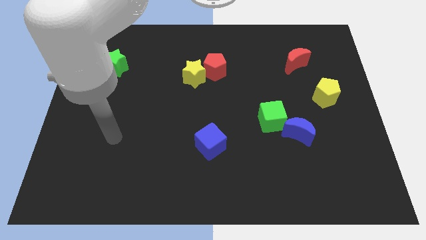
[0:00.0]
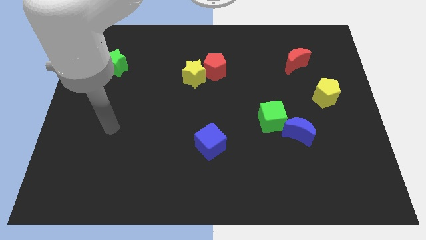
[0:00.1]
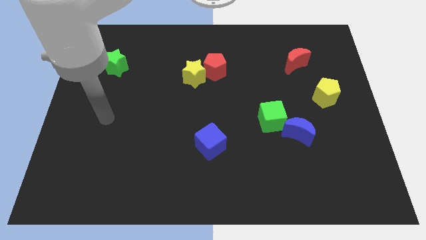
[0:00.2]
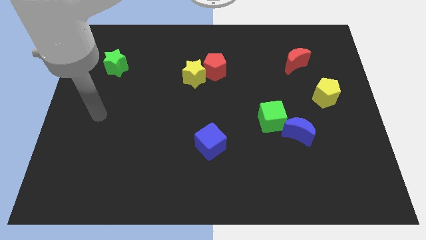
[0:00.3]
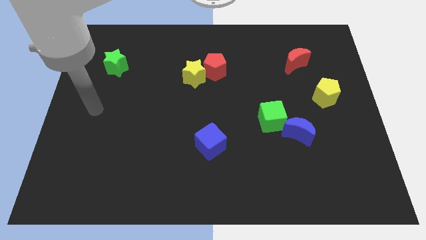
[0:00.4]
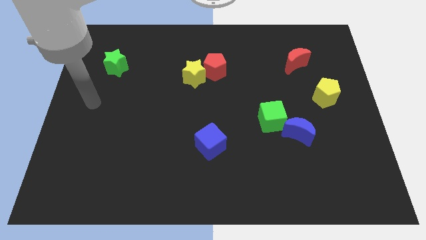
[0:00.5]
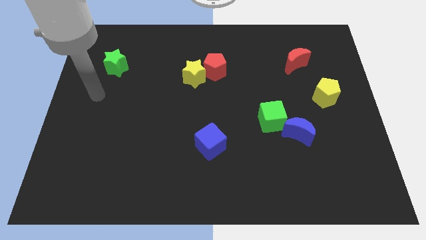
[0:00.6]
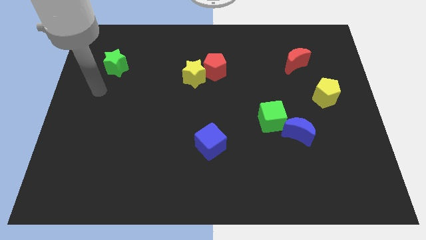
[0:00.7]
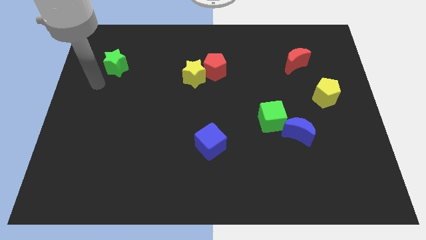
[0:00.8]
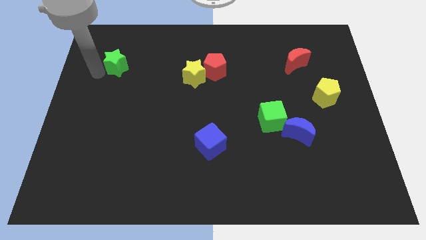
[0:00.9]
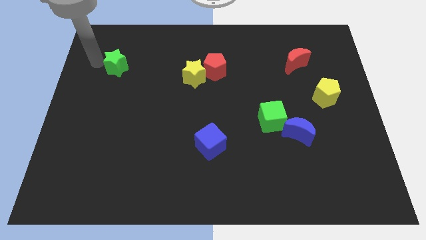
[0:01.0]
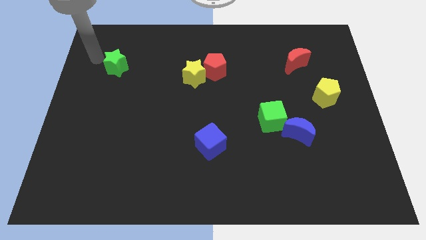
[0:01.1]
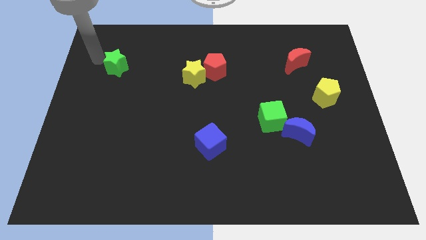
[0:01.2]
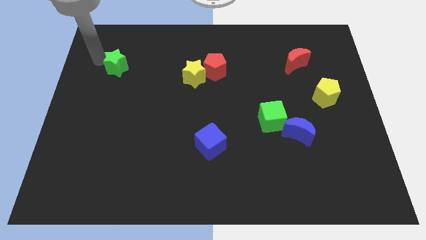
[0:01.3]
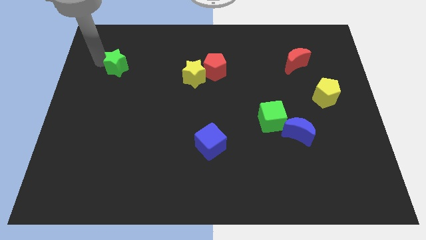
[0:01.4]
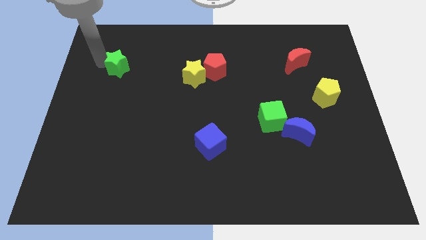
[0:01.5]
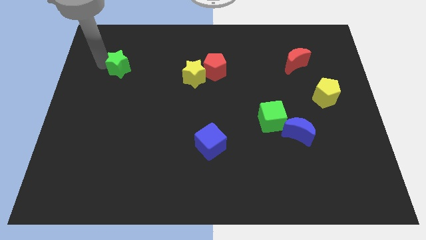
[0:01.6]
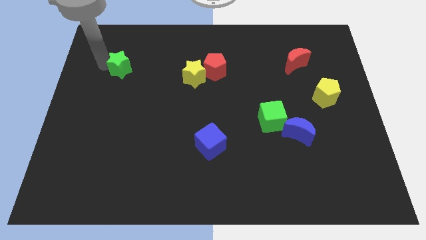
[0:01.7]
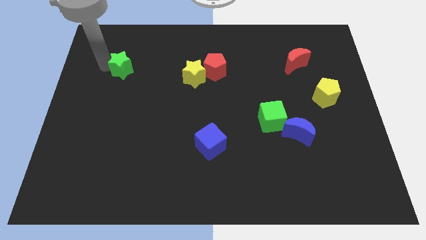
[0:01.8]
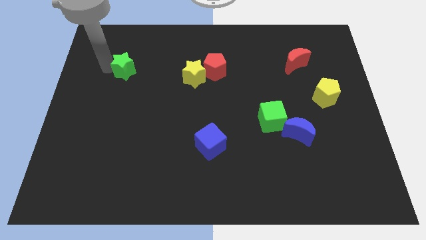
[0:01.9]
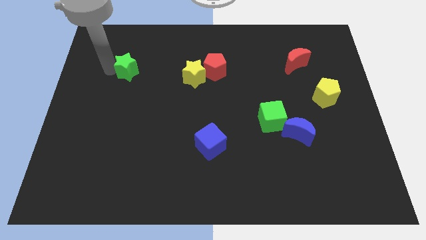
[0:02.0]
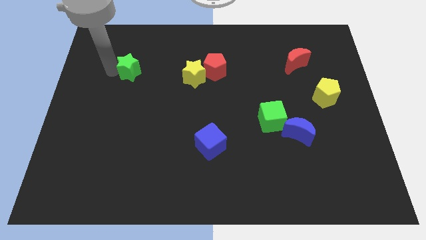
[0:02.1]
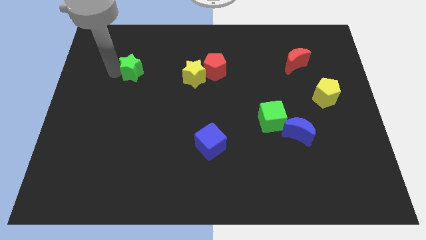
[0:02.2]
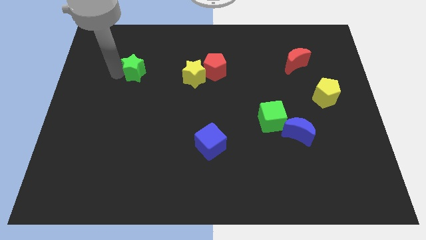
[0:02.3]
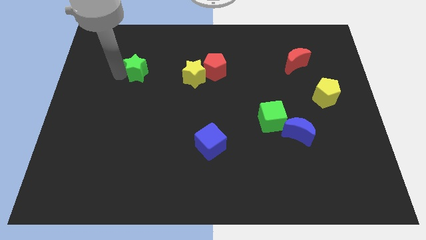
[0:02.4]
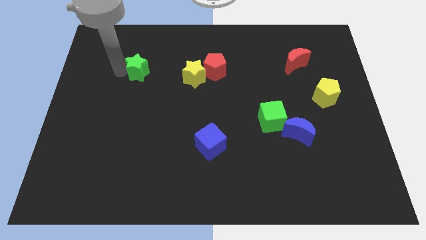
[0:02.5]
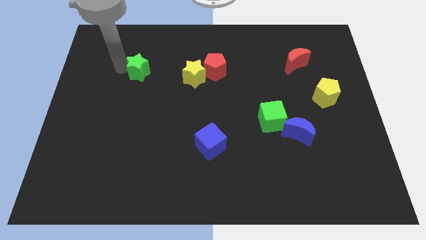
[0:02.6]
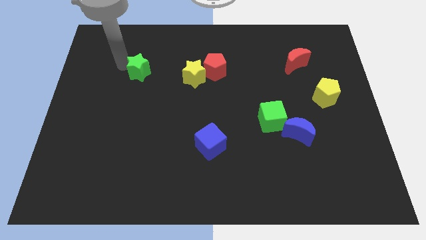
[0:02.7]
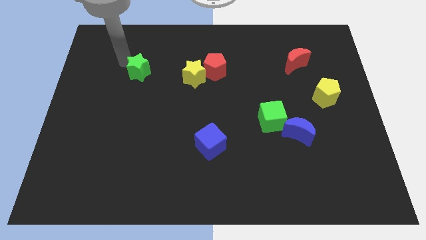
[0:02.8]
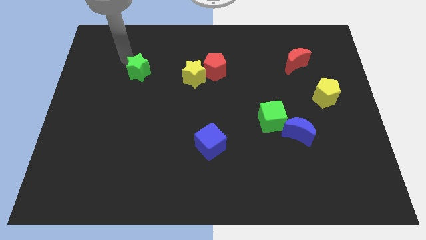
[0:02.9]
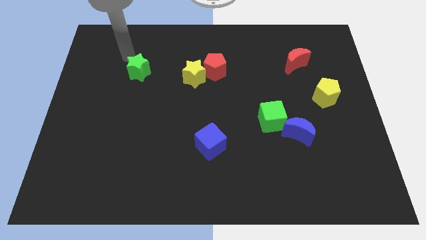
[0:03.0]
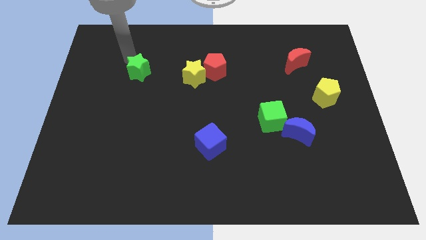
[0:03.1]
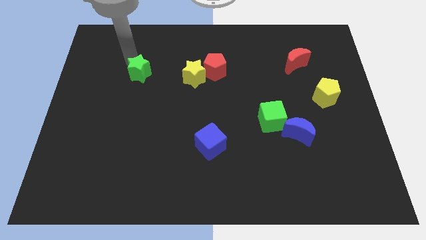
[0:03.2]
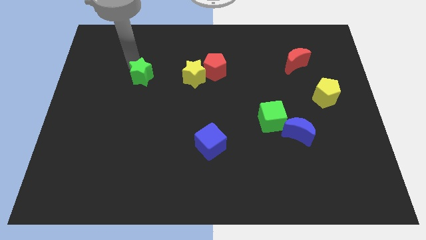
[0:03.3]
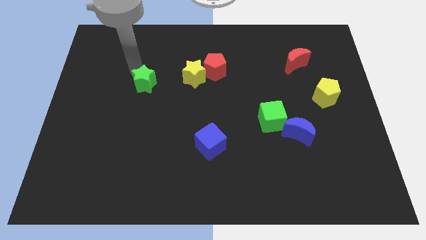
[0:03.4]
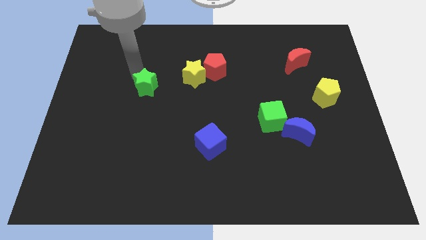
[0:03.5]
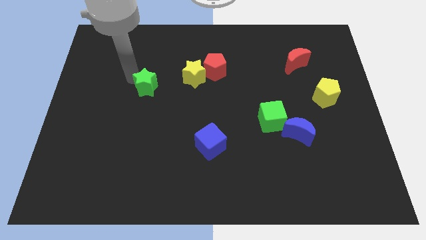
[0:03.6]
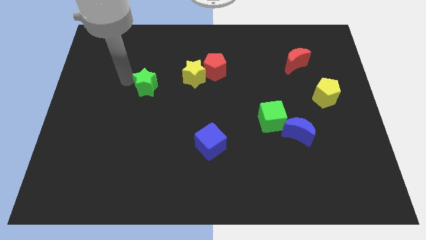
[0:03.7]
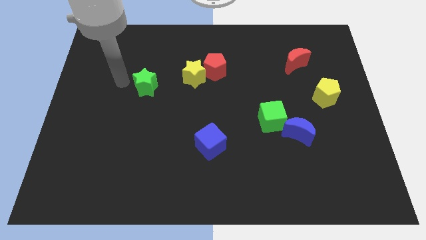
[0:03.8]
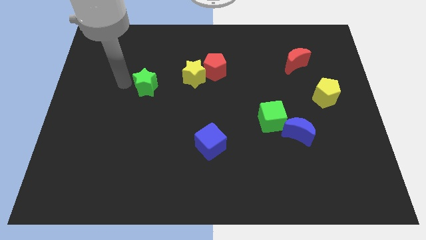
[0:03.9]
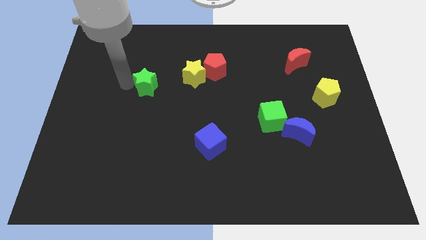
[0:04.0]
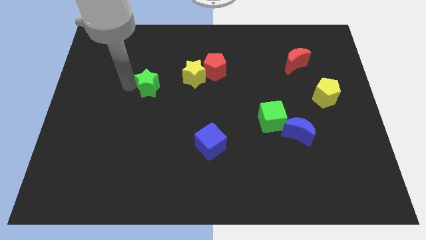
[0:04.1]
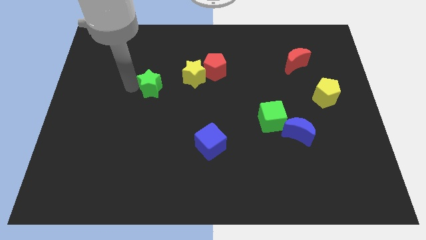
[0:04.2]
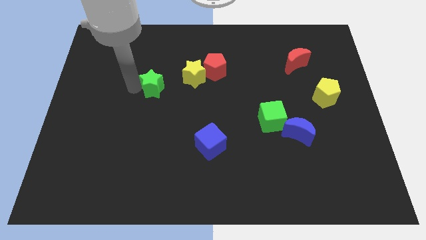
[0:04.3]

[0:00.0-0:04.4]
push the green star to the bottom left side of the yellow star

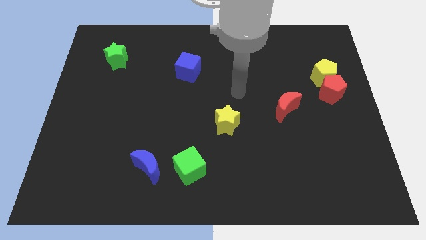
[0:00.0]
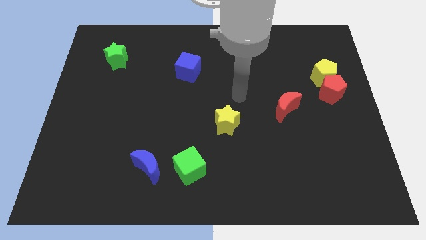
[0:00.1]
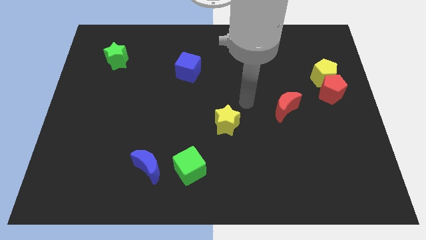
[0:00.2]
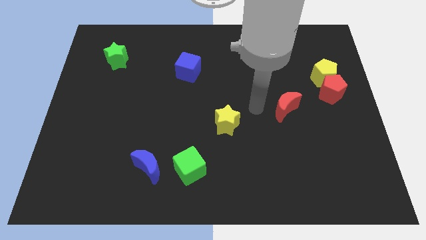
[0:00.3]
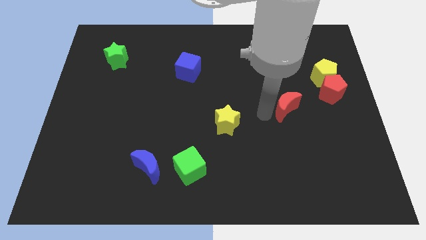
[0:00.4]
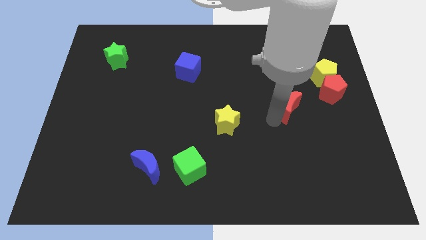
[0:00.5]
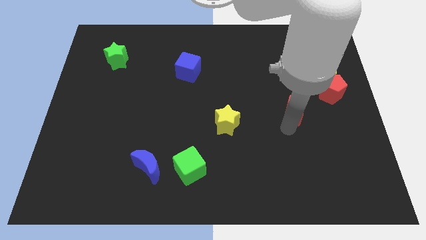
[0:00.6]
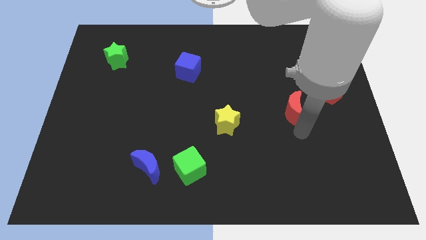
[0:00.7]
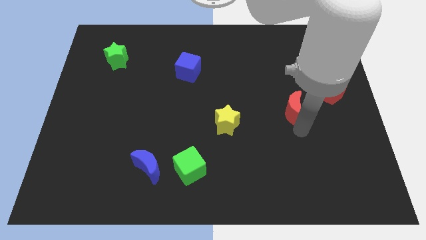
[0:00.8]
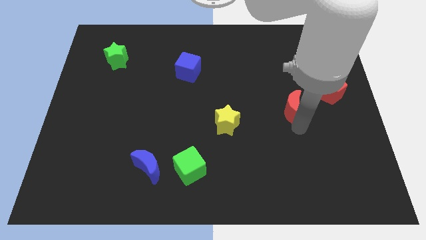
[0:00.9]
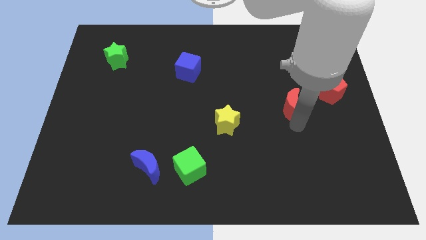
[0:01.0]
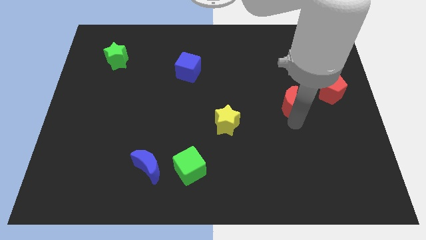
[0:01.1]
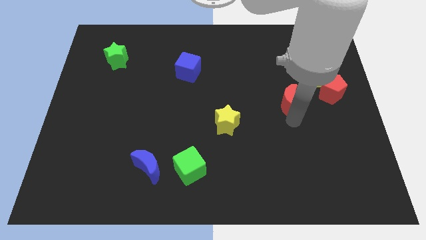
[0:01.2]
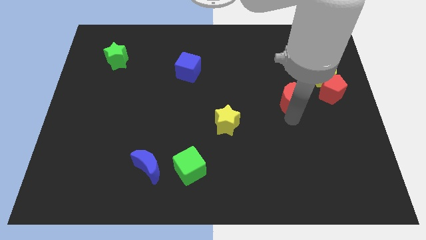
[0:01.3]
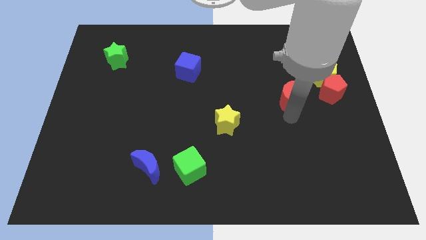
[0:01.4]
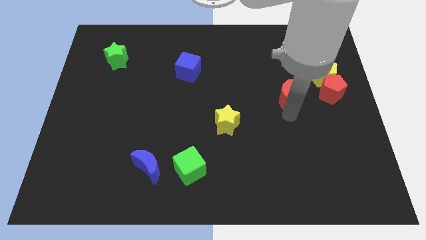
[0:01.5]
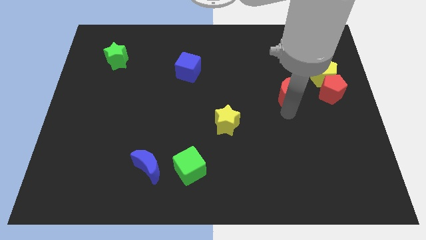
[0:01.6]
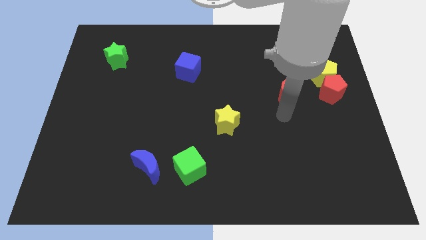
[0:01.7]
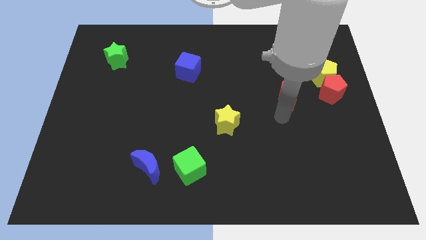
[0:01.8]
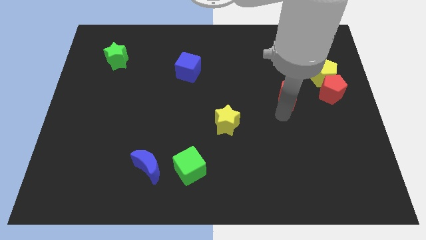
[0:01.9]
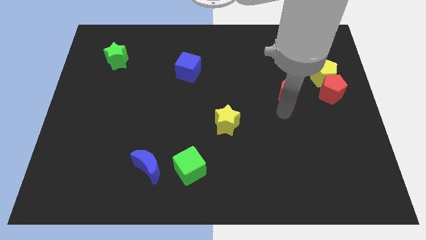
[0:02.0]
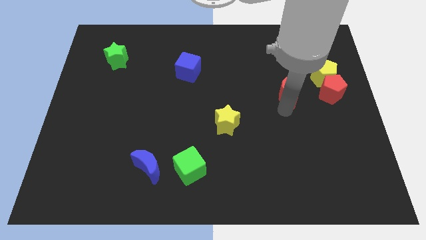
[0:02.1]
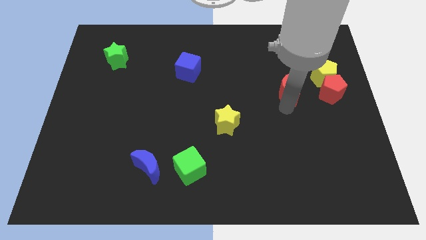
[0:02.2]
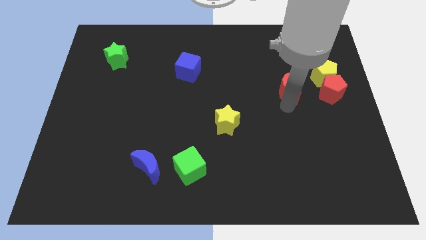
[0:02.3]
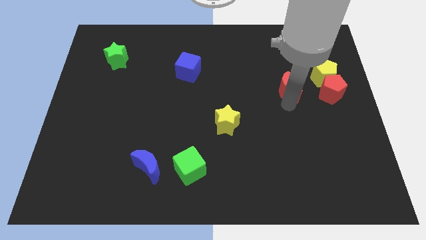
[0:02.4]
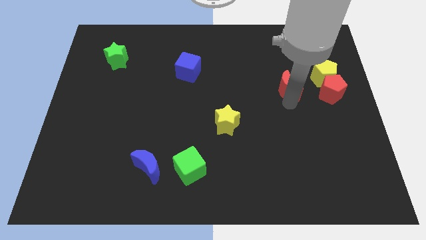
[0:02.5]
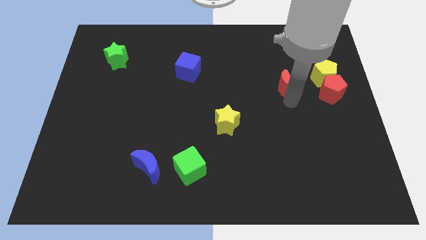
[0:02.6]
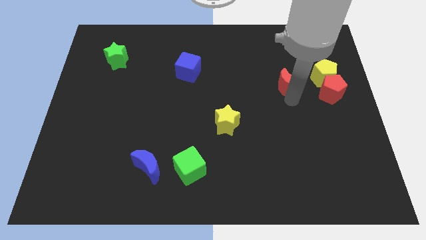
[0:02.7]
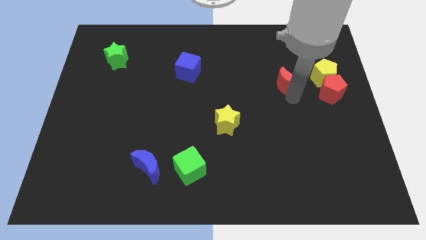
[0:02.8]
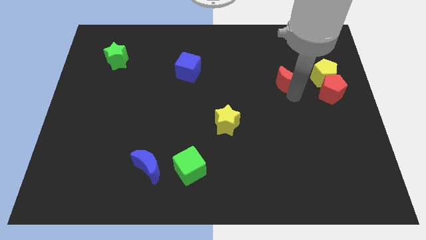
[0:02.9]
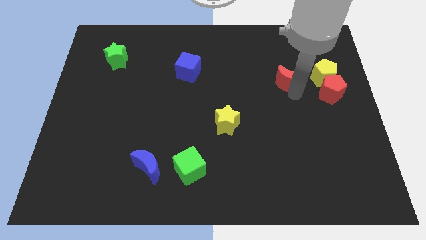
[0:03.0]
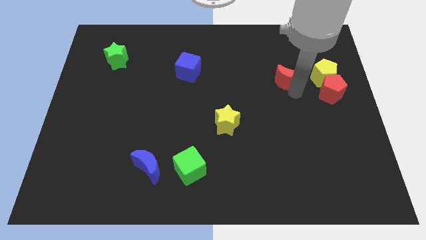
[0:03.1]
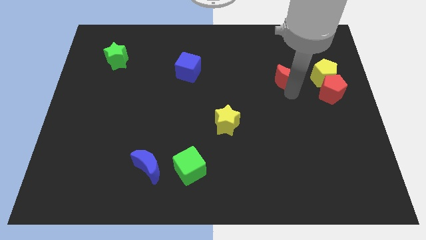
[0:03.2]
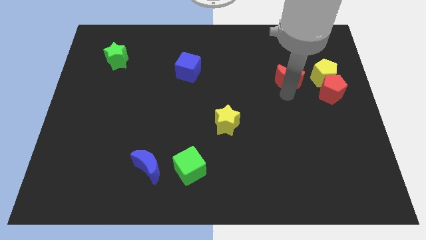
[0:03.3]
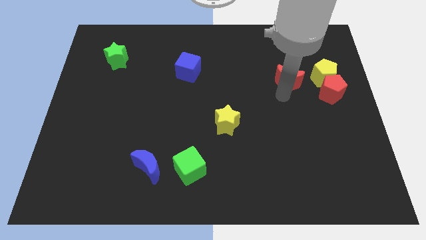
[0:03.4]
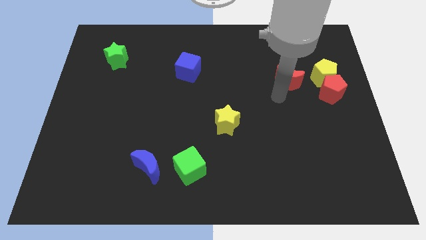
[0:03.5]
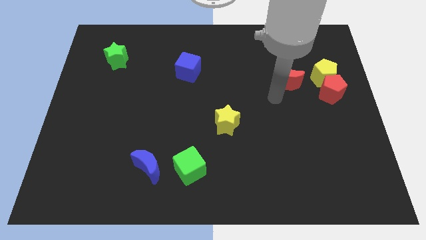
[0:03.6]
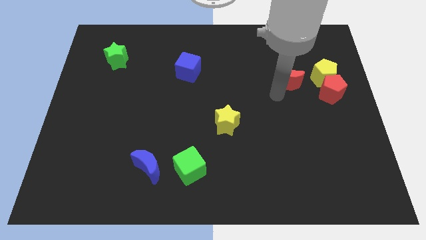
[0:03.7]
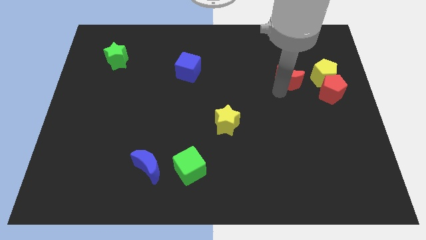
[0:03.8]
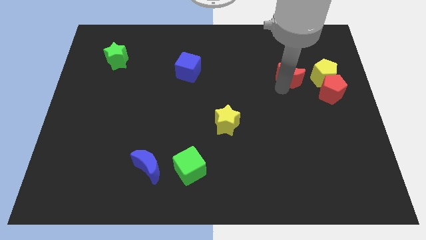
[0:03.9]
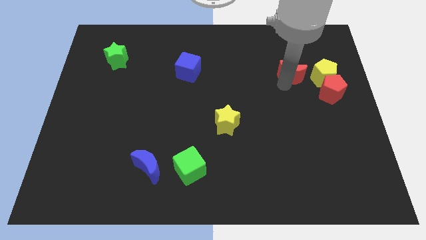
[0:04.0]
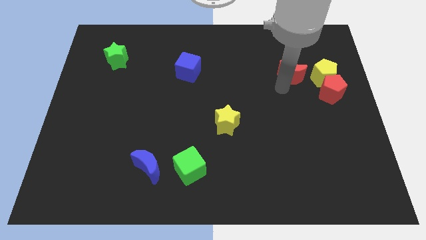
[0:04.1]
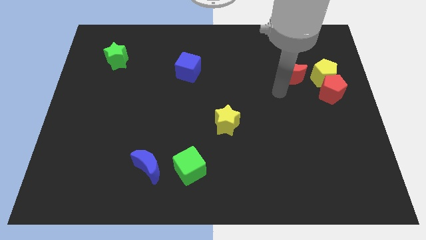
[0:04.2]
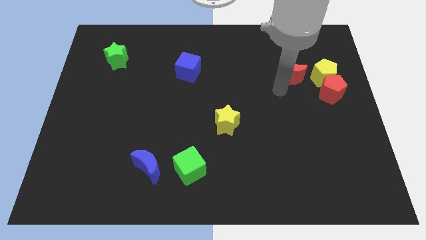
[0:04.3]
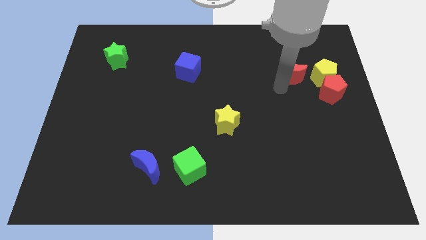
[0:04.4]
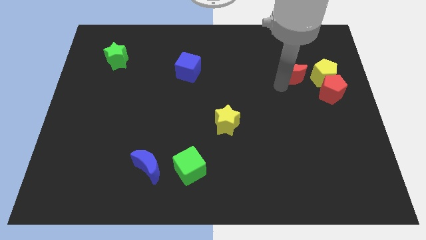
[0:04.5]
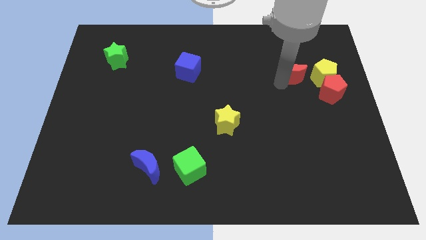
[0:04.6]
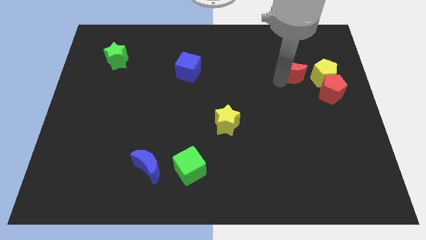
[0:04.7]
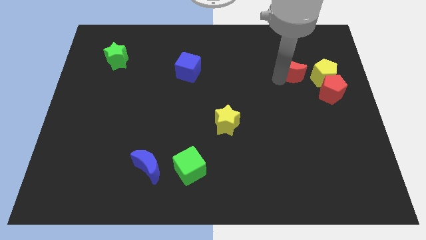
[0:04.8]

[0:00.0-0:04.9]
put the red moon to the top left of the yellow pentagon
